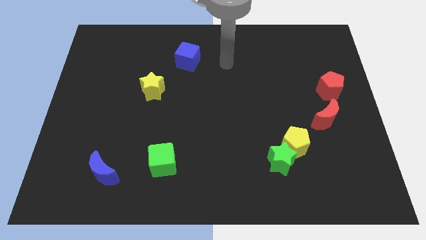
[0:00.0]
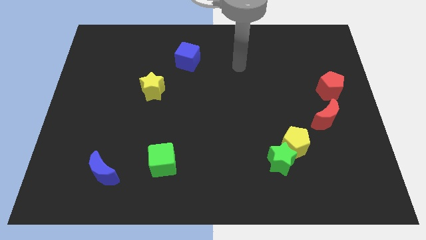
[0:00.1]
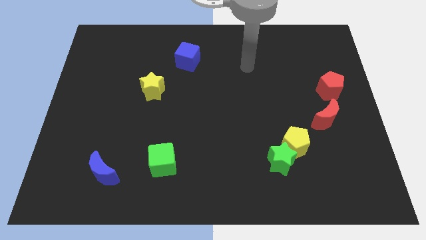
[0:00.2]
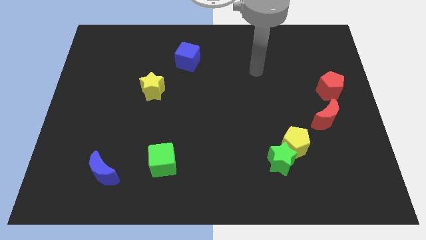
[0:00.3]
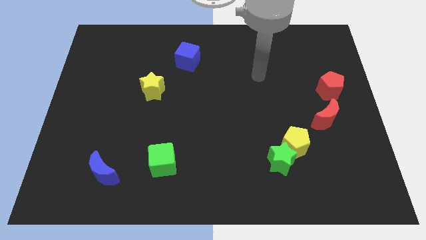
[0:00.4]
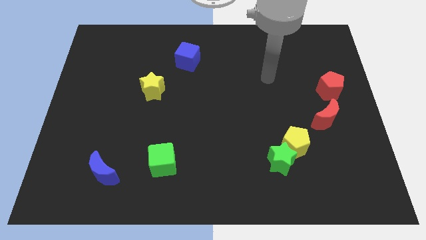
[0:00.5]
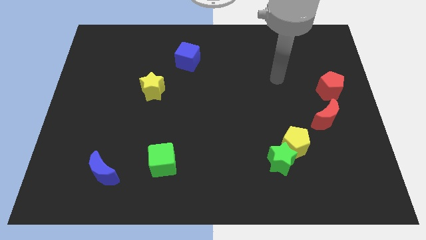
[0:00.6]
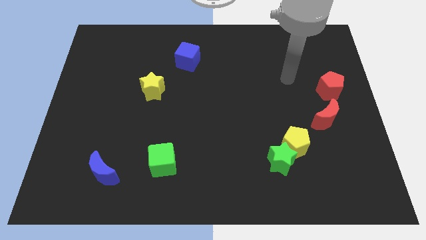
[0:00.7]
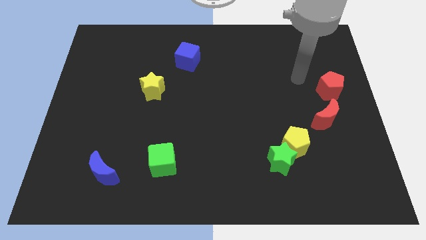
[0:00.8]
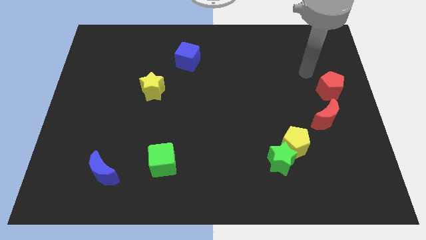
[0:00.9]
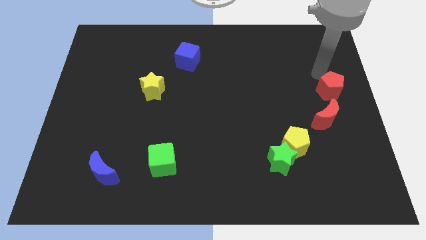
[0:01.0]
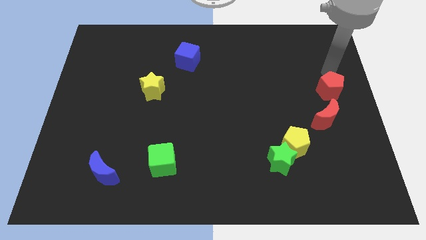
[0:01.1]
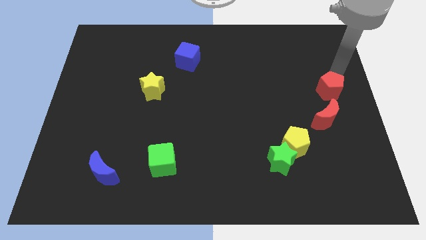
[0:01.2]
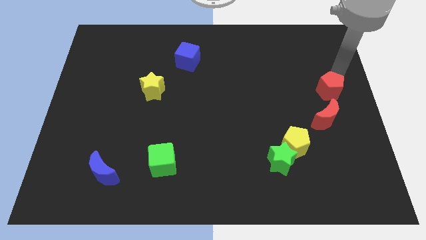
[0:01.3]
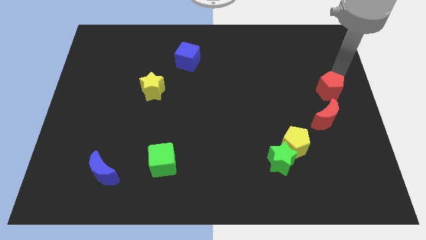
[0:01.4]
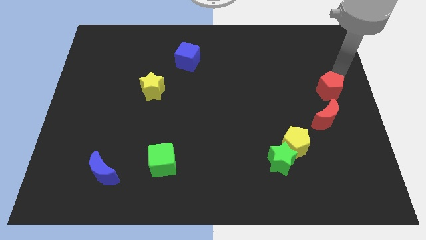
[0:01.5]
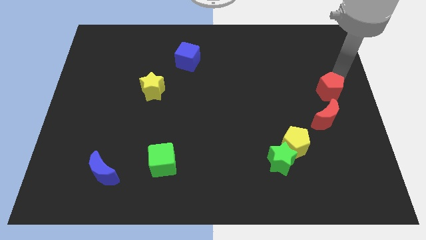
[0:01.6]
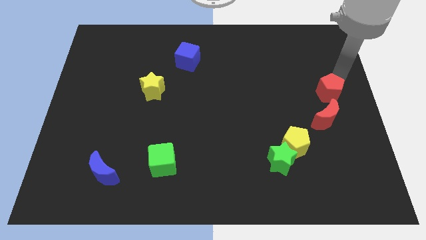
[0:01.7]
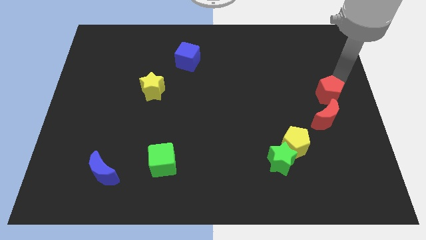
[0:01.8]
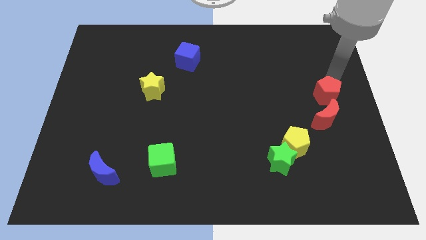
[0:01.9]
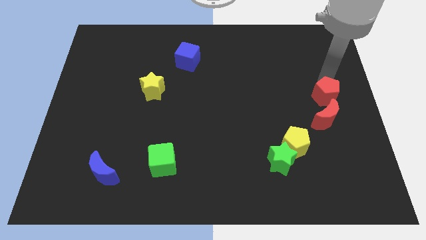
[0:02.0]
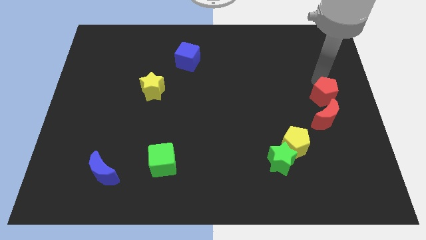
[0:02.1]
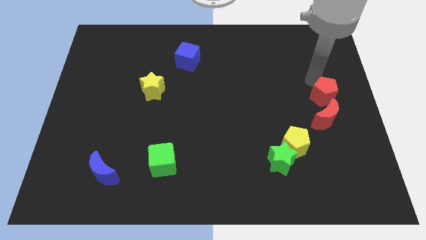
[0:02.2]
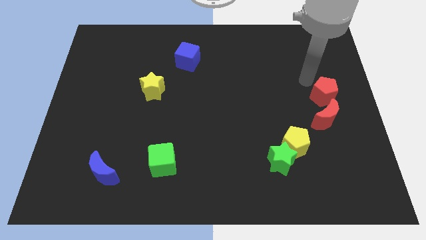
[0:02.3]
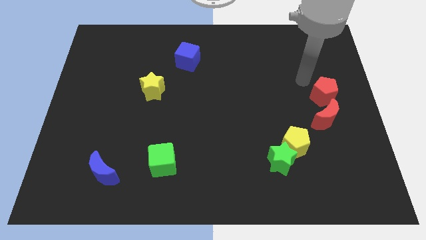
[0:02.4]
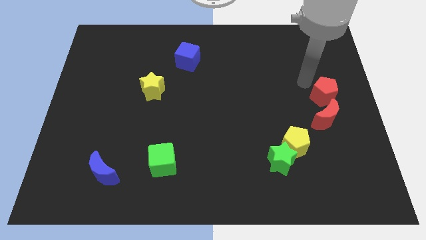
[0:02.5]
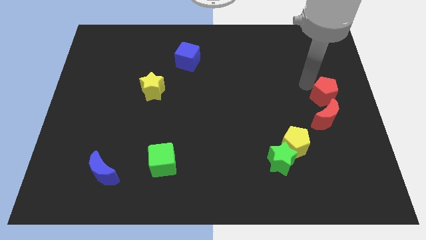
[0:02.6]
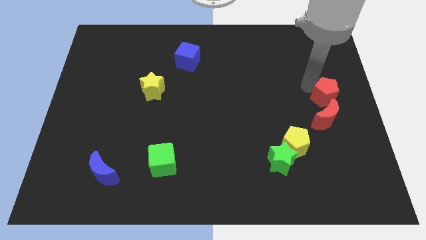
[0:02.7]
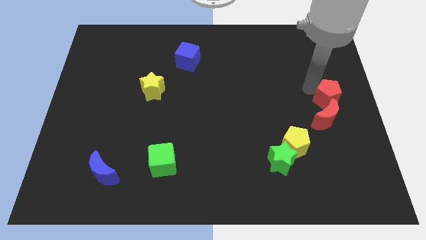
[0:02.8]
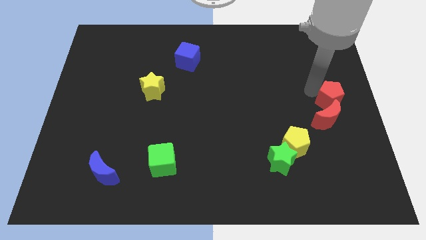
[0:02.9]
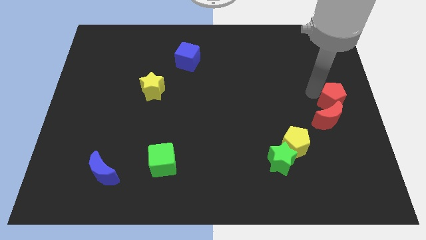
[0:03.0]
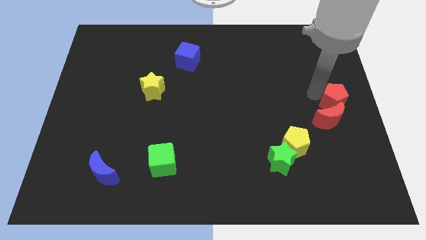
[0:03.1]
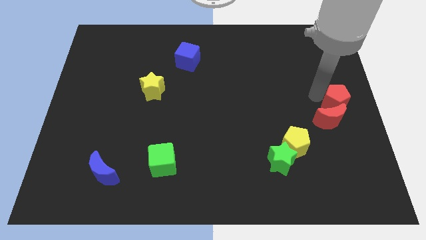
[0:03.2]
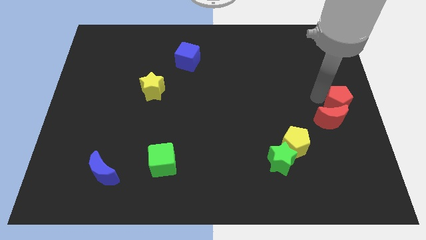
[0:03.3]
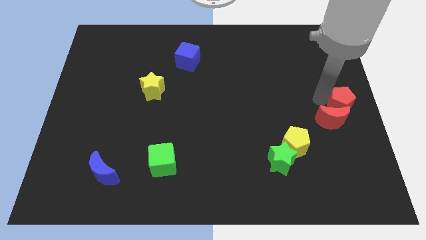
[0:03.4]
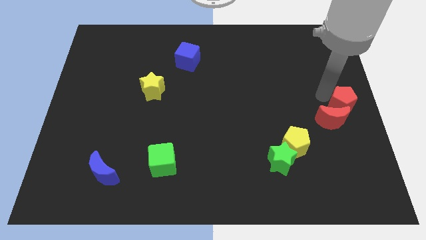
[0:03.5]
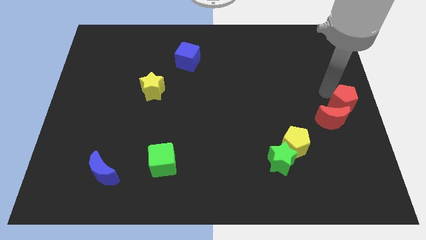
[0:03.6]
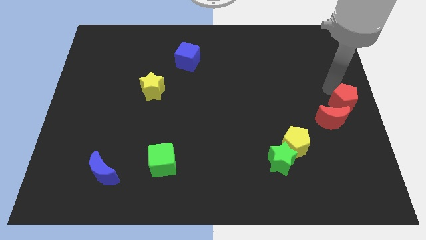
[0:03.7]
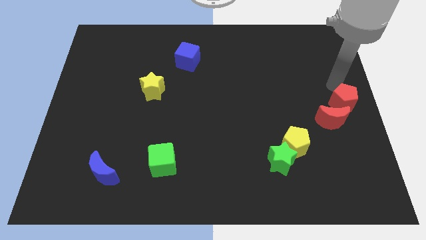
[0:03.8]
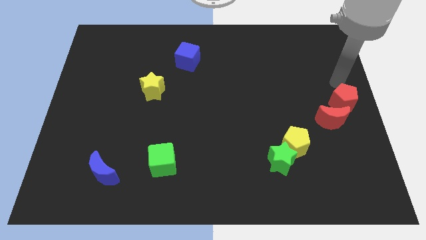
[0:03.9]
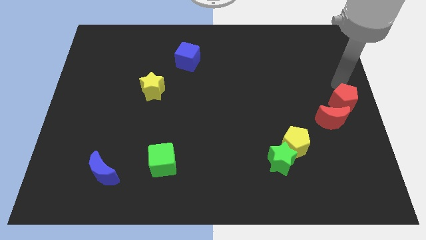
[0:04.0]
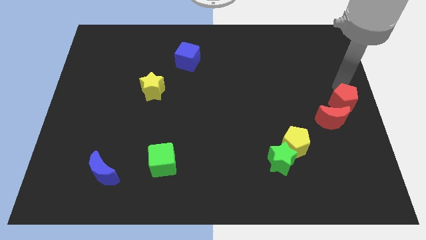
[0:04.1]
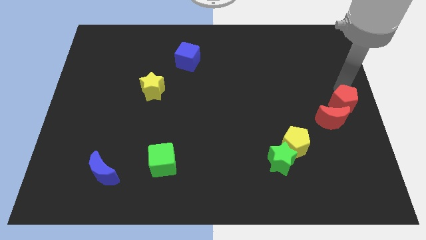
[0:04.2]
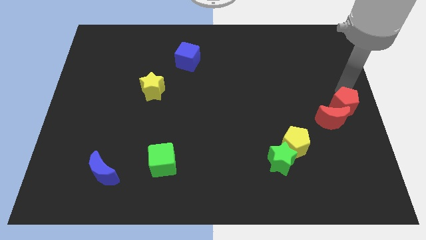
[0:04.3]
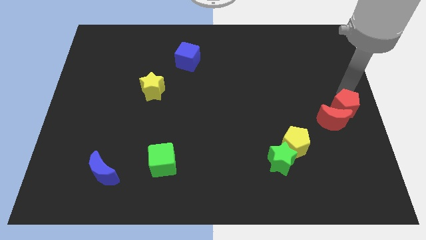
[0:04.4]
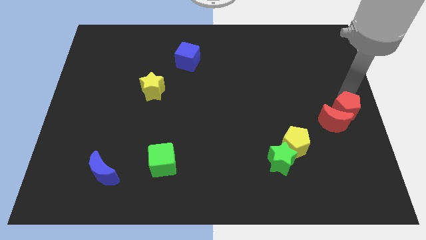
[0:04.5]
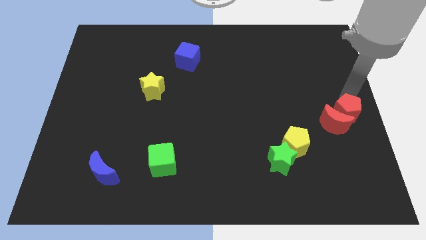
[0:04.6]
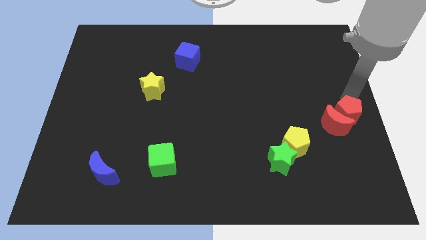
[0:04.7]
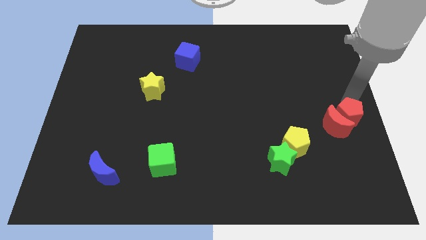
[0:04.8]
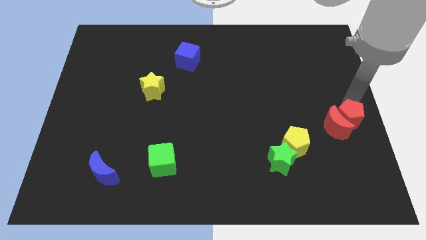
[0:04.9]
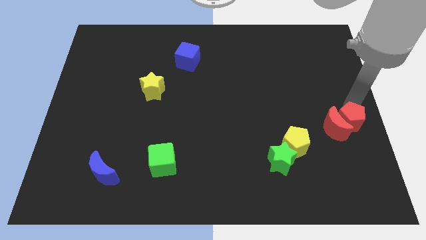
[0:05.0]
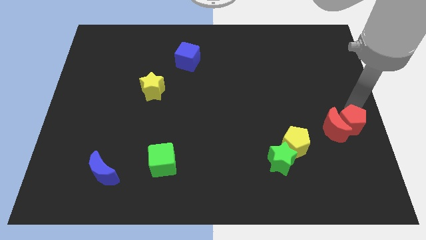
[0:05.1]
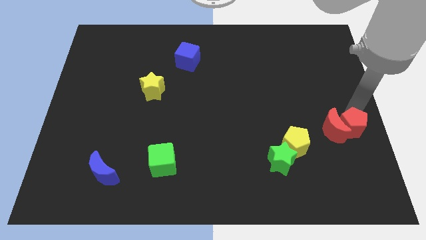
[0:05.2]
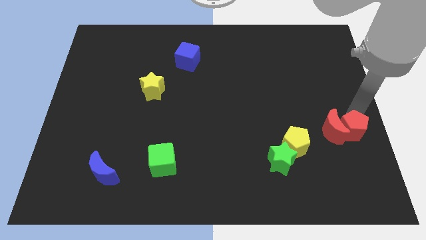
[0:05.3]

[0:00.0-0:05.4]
put the red pentagon just right of the yellow pentagon

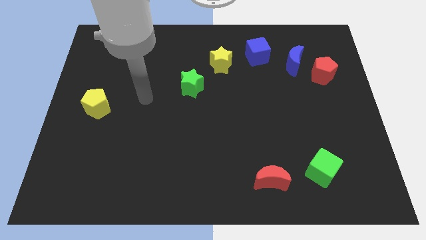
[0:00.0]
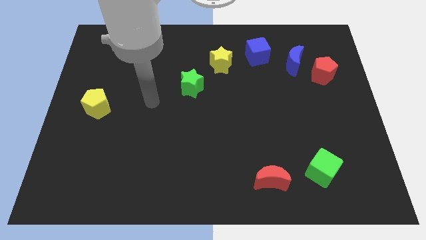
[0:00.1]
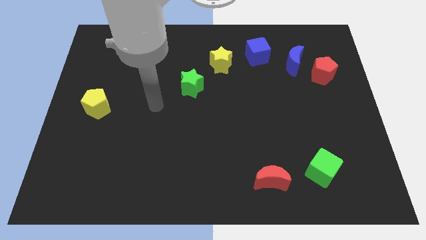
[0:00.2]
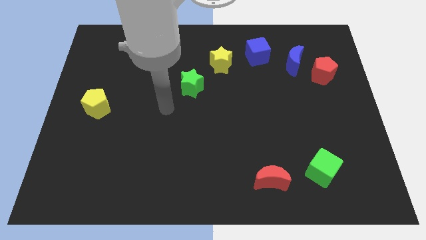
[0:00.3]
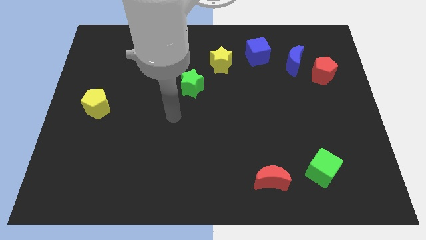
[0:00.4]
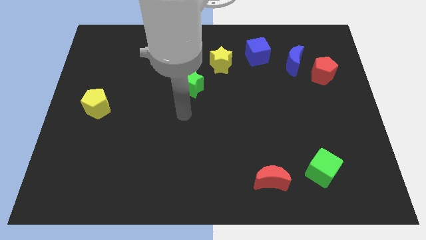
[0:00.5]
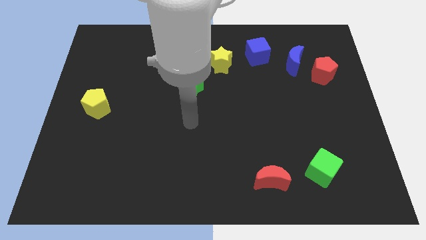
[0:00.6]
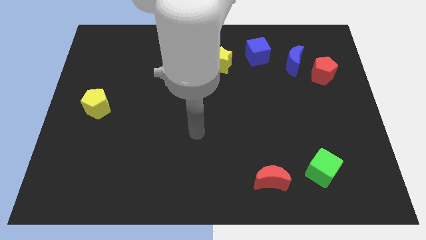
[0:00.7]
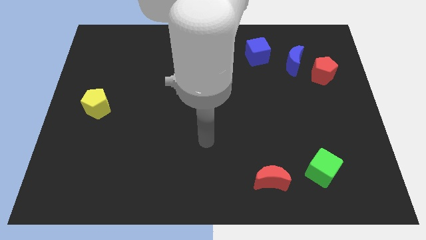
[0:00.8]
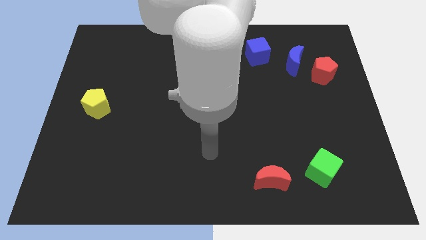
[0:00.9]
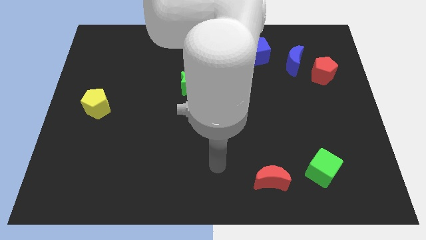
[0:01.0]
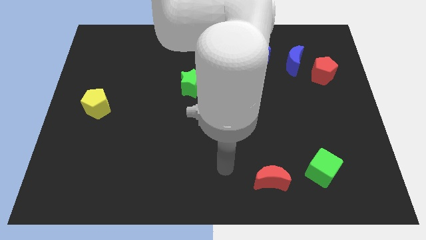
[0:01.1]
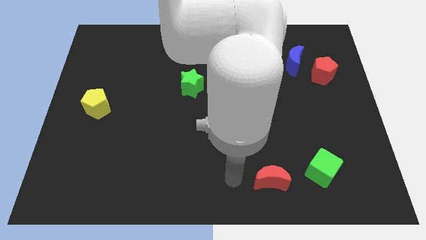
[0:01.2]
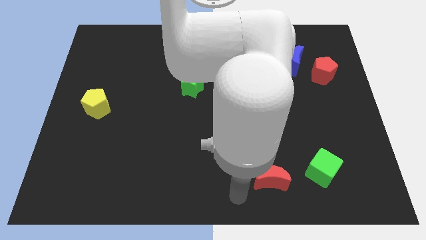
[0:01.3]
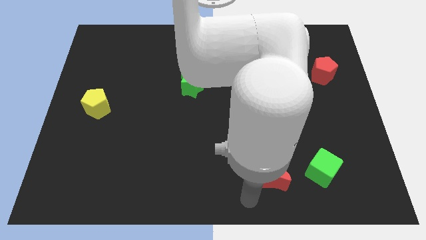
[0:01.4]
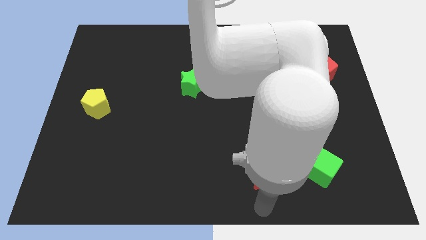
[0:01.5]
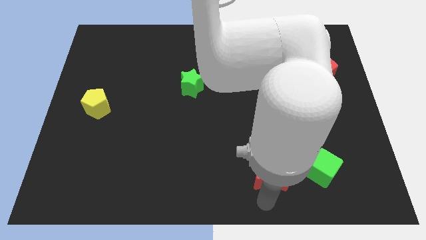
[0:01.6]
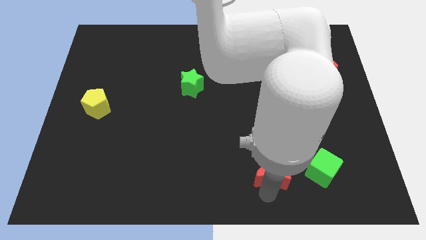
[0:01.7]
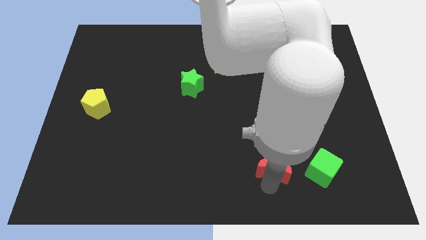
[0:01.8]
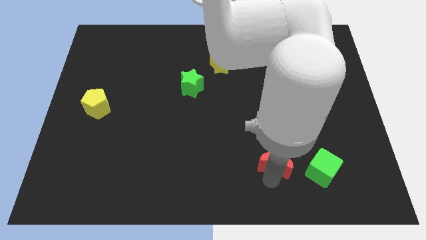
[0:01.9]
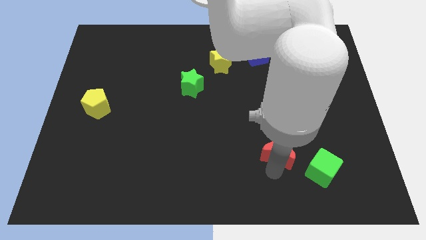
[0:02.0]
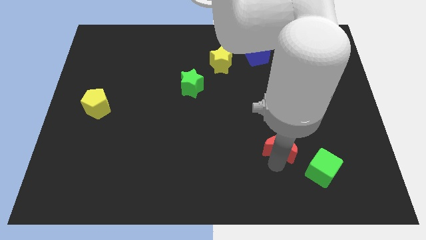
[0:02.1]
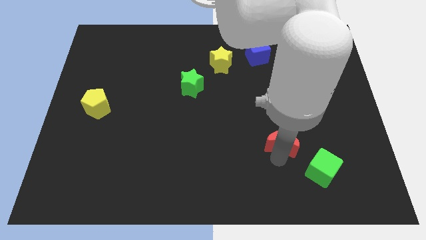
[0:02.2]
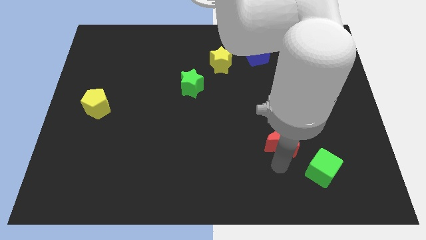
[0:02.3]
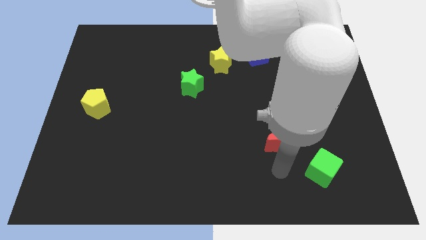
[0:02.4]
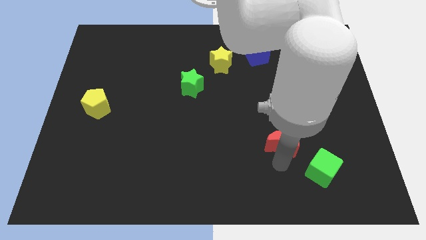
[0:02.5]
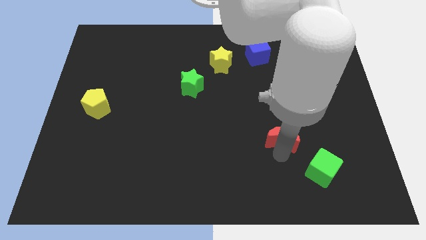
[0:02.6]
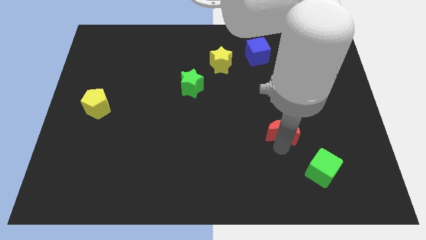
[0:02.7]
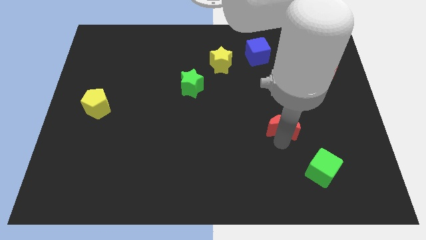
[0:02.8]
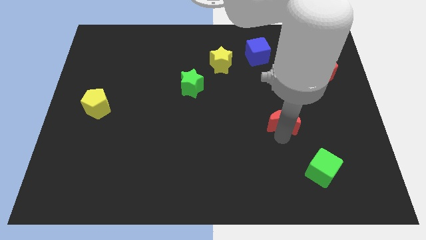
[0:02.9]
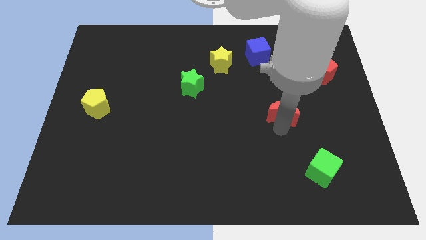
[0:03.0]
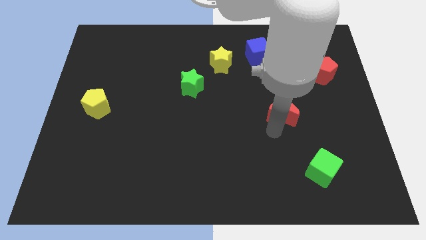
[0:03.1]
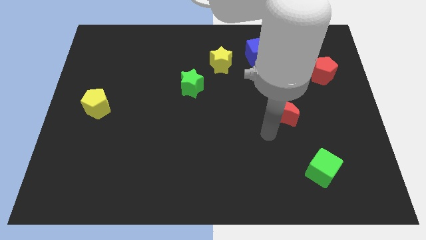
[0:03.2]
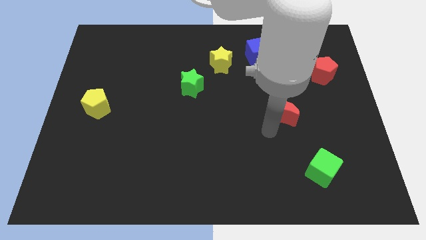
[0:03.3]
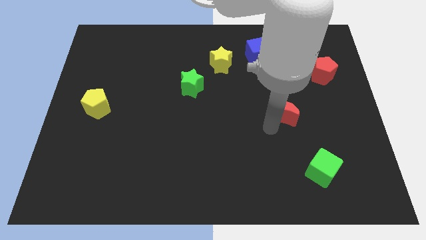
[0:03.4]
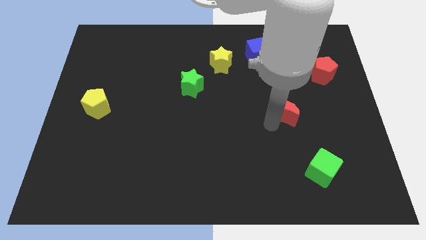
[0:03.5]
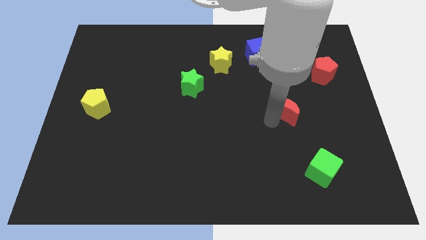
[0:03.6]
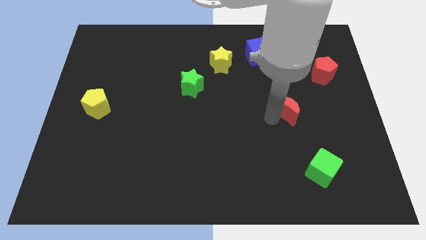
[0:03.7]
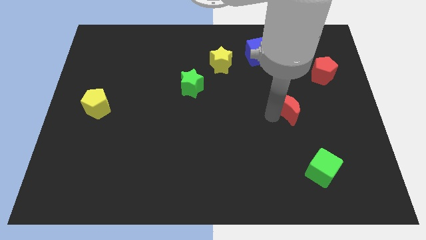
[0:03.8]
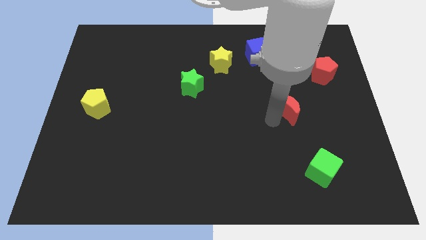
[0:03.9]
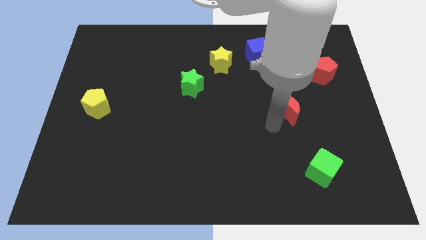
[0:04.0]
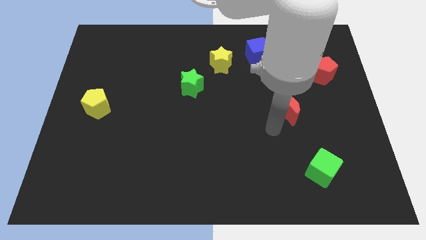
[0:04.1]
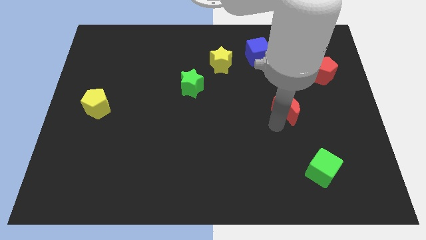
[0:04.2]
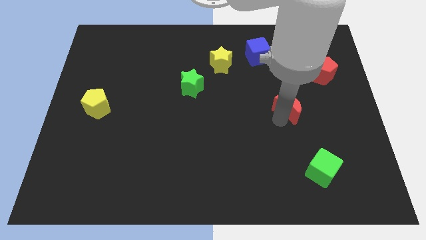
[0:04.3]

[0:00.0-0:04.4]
slide the red moon below the blue moon
